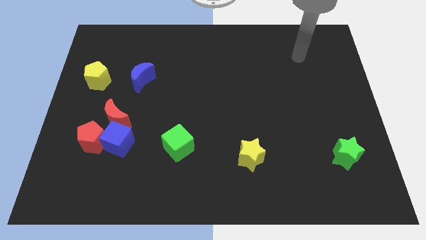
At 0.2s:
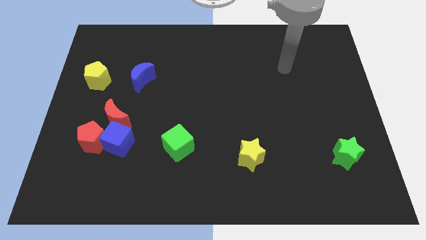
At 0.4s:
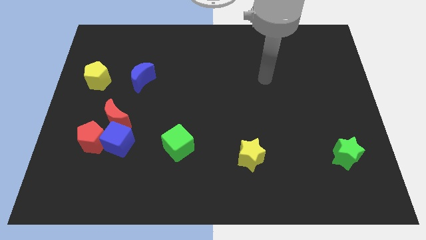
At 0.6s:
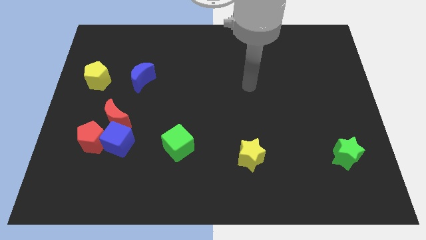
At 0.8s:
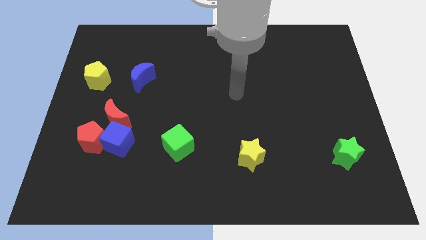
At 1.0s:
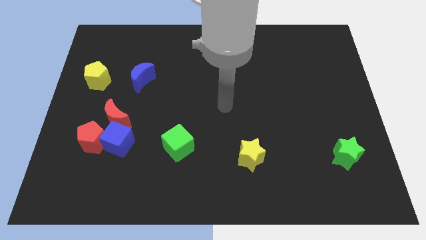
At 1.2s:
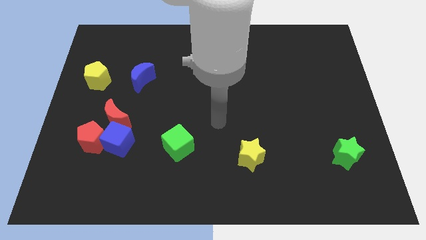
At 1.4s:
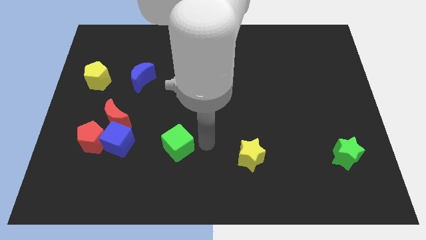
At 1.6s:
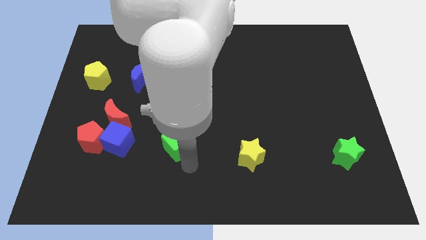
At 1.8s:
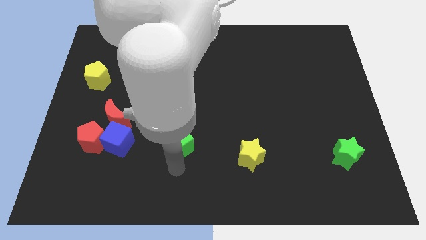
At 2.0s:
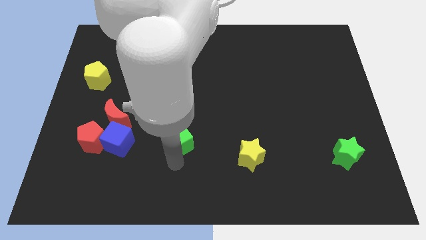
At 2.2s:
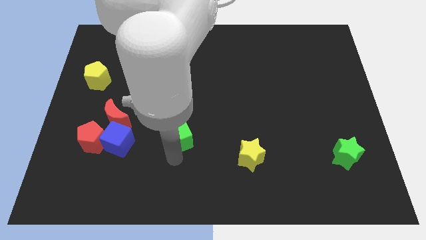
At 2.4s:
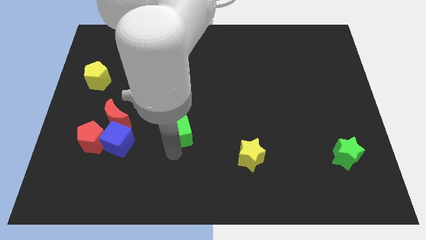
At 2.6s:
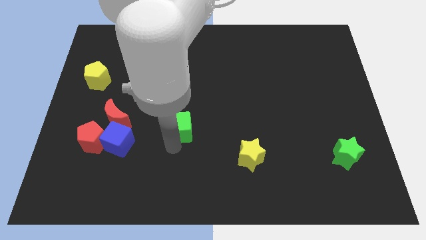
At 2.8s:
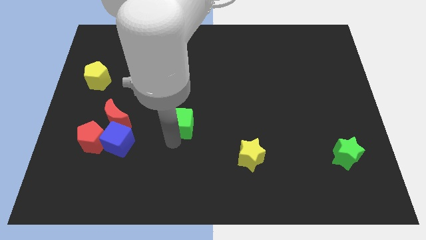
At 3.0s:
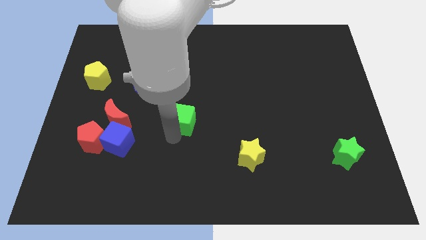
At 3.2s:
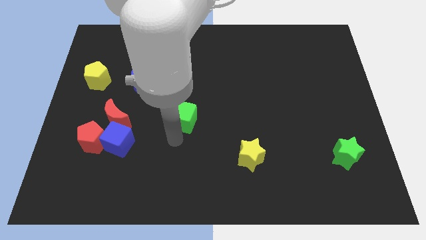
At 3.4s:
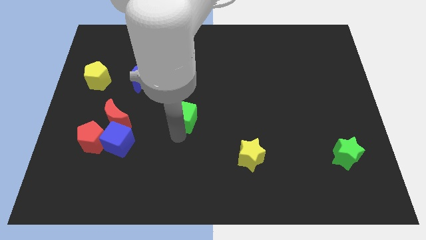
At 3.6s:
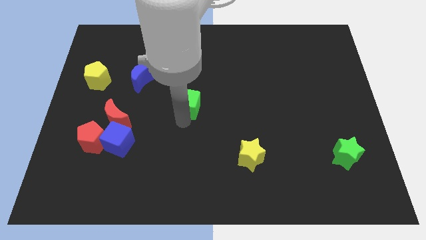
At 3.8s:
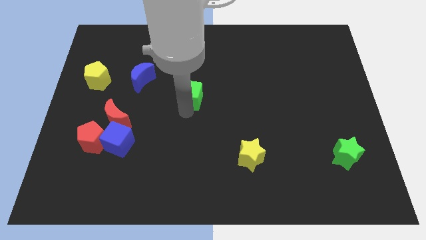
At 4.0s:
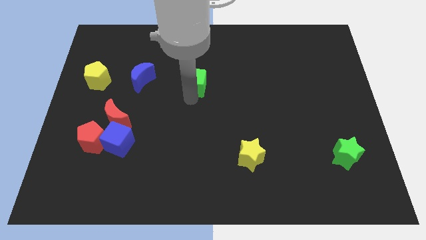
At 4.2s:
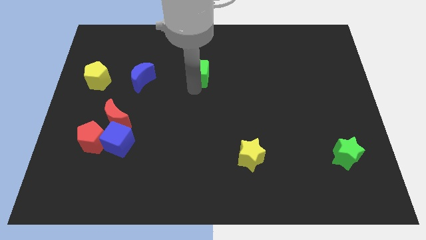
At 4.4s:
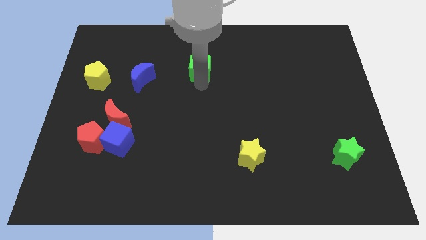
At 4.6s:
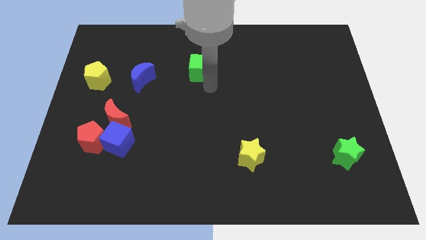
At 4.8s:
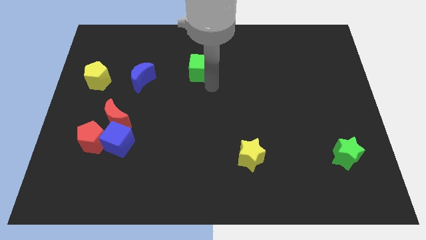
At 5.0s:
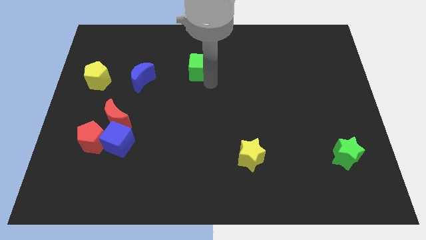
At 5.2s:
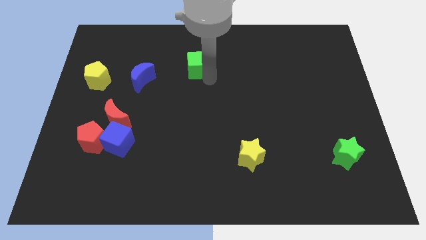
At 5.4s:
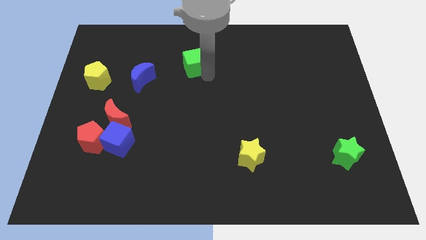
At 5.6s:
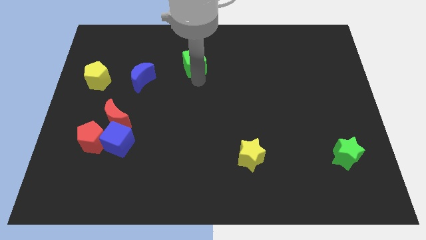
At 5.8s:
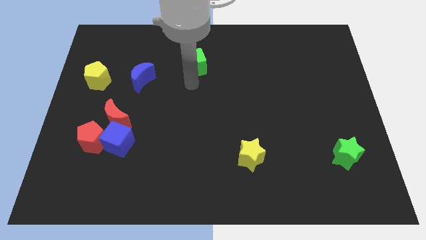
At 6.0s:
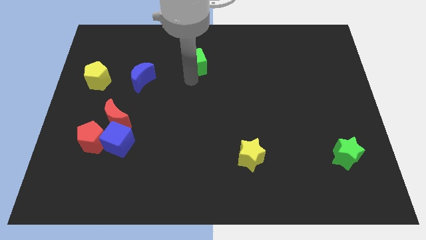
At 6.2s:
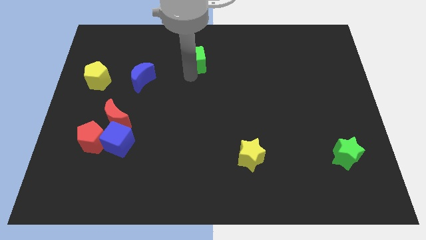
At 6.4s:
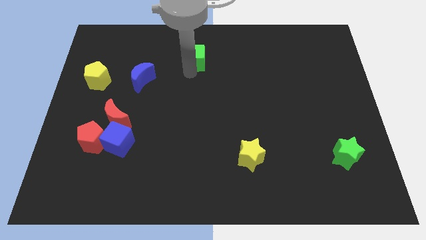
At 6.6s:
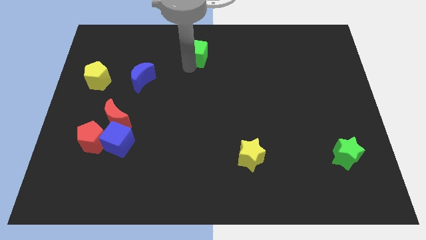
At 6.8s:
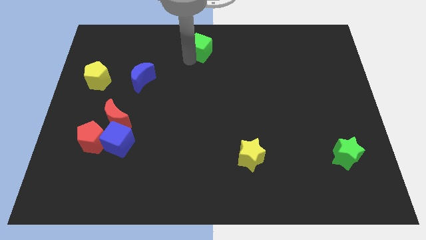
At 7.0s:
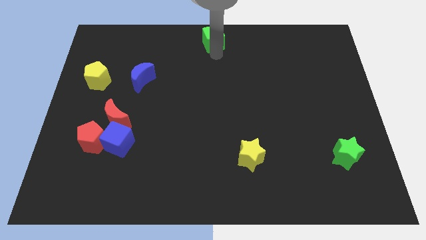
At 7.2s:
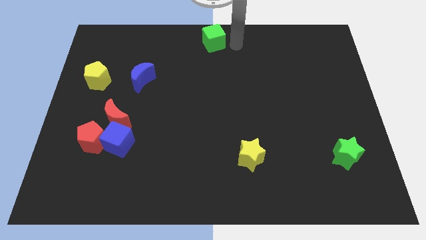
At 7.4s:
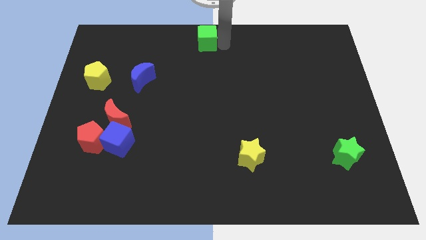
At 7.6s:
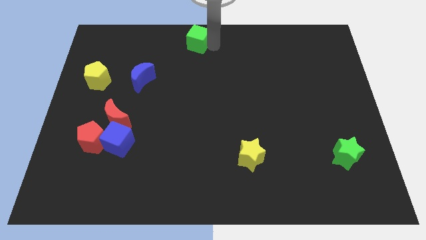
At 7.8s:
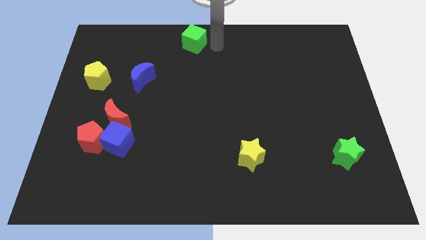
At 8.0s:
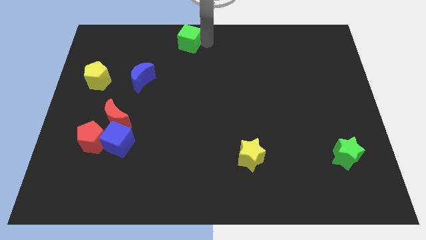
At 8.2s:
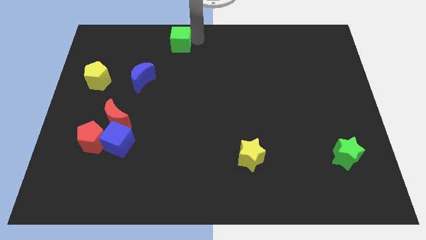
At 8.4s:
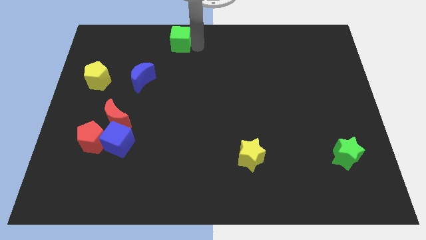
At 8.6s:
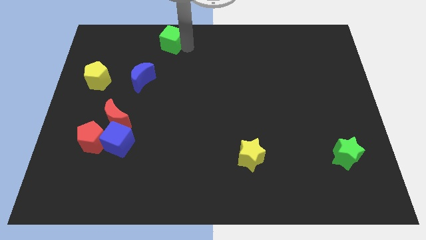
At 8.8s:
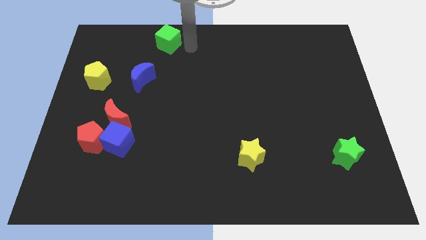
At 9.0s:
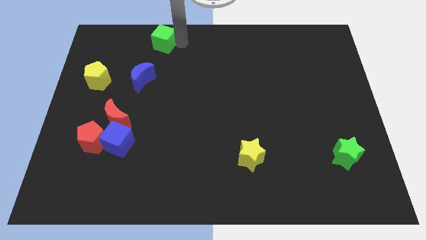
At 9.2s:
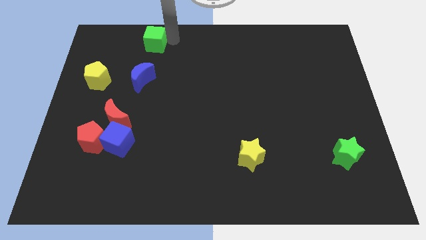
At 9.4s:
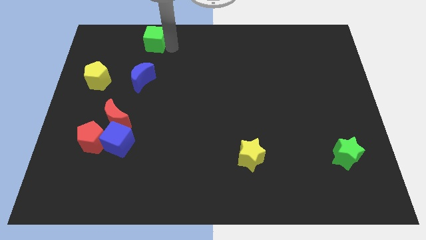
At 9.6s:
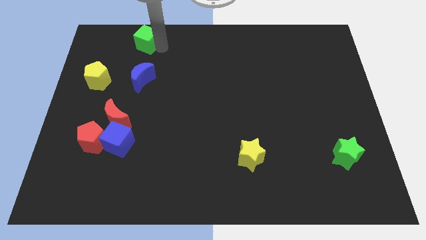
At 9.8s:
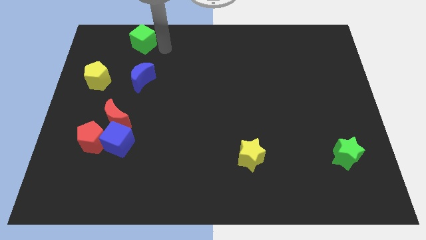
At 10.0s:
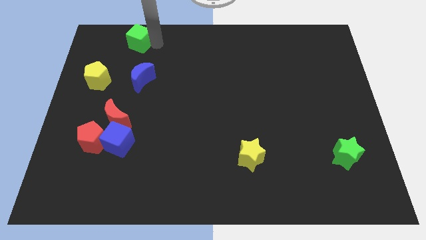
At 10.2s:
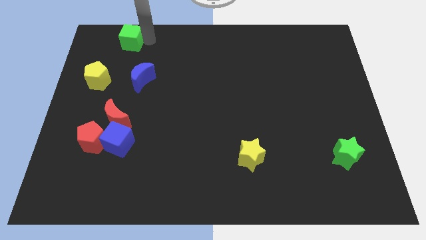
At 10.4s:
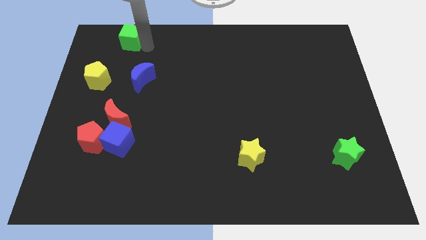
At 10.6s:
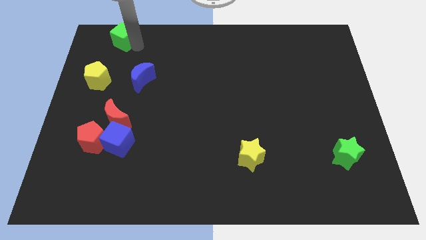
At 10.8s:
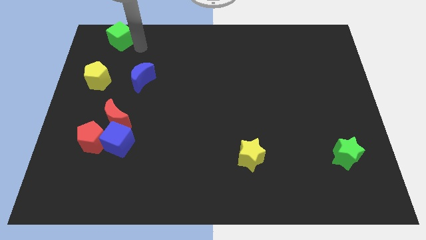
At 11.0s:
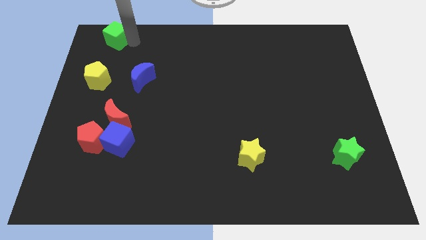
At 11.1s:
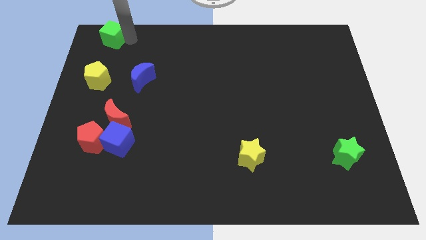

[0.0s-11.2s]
slide the green cube to the top left

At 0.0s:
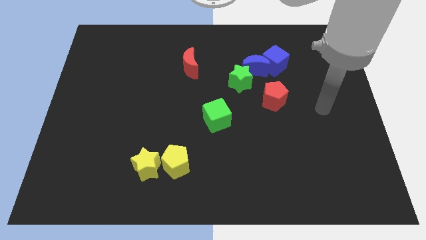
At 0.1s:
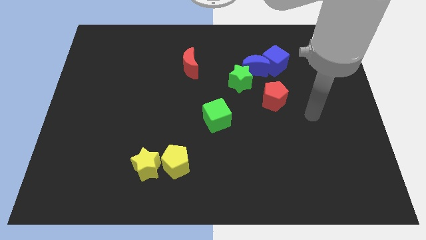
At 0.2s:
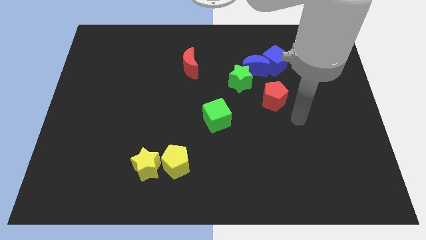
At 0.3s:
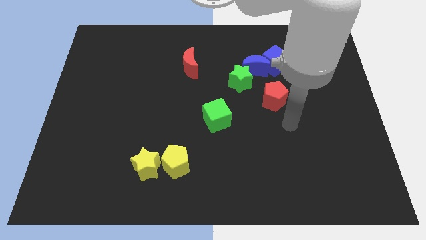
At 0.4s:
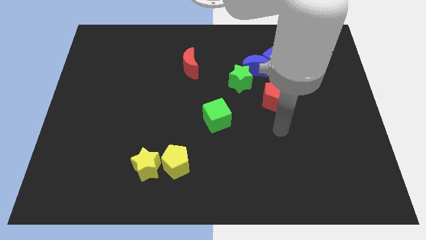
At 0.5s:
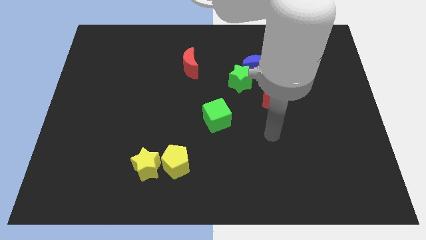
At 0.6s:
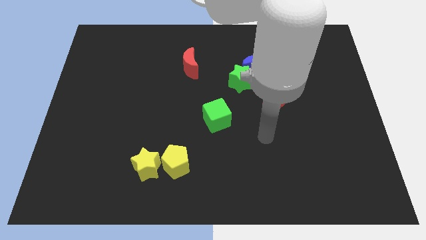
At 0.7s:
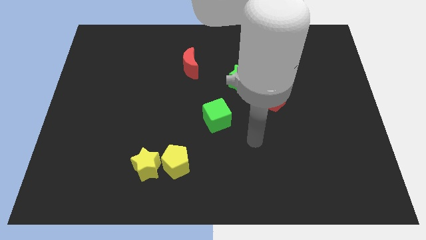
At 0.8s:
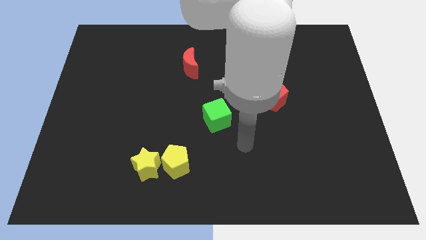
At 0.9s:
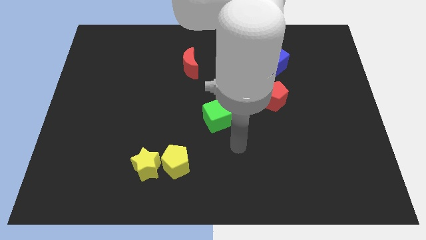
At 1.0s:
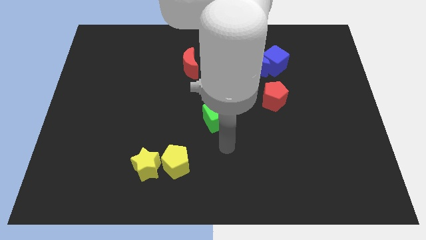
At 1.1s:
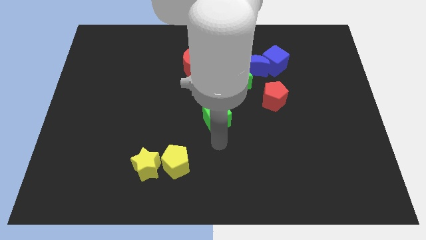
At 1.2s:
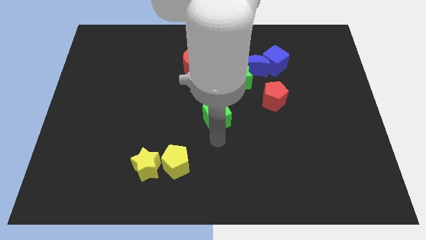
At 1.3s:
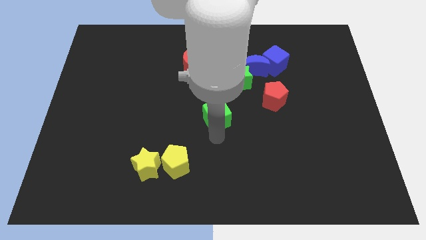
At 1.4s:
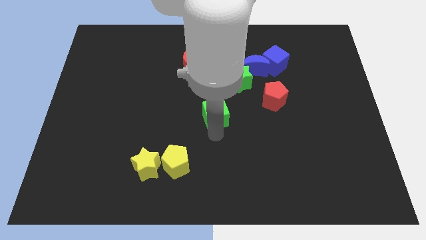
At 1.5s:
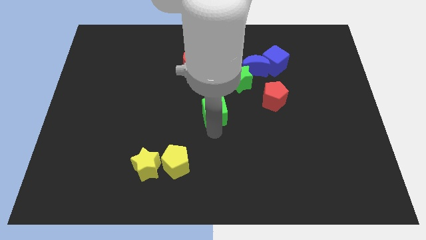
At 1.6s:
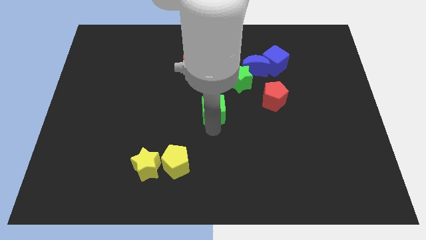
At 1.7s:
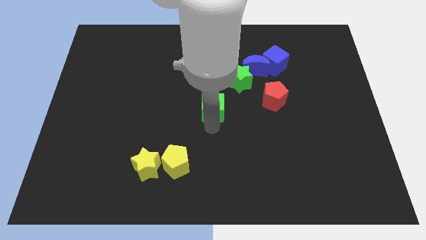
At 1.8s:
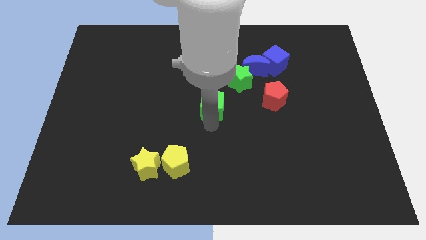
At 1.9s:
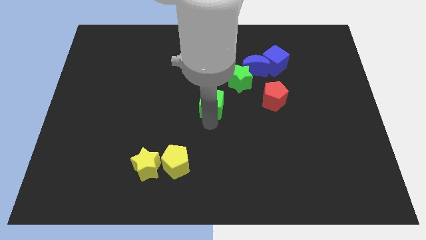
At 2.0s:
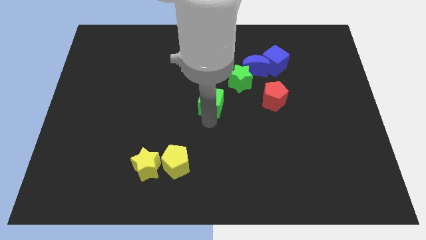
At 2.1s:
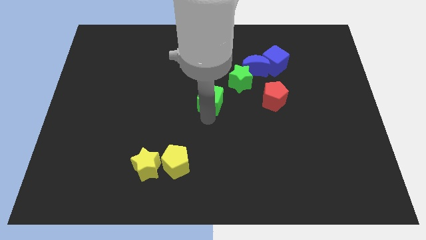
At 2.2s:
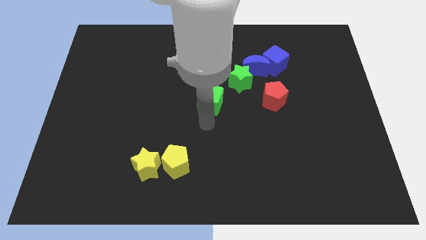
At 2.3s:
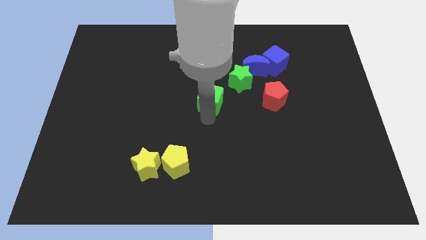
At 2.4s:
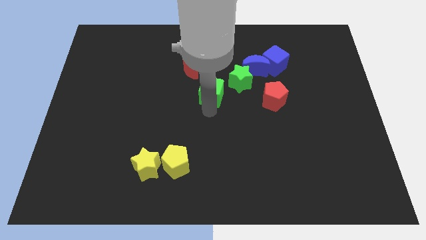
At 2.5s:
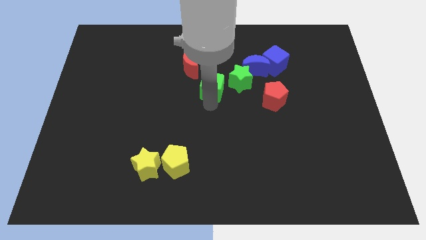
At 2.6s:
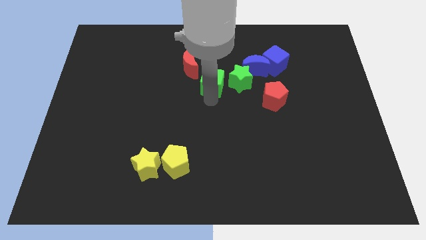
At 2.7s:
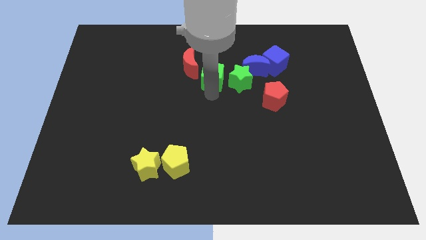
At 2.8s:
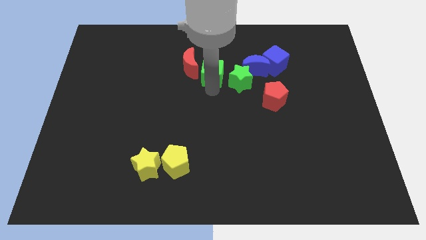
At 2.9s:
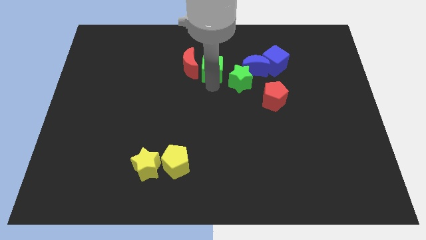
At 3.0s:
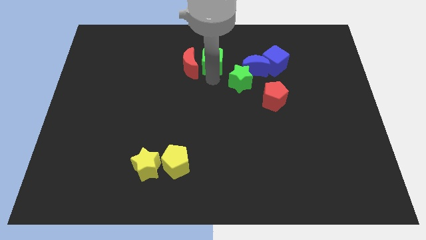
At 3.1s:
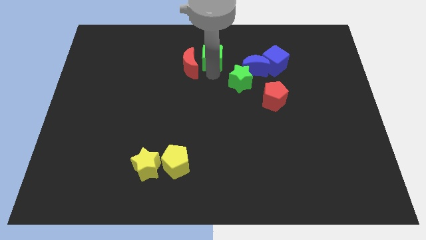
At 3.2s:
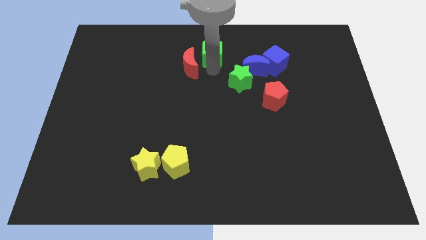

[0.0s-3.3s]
move the green cube to the top side
